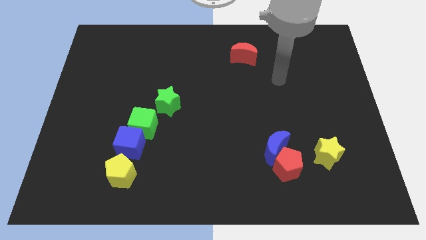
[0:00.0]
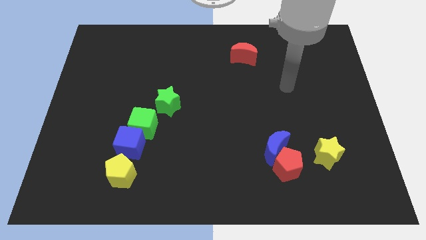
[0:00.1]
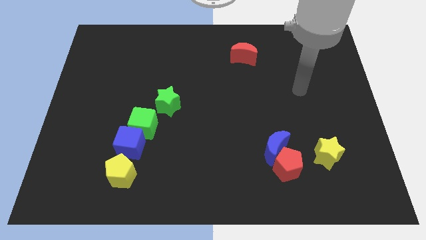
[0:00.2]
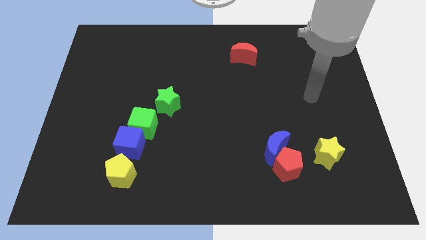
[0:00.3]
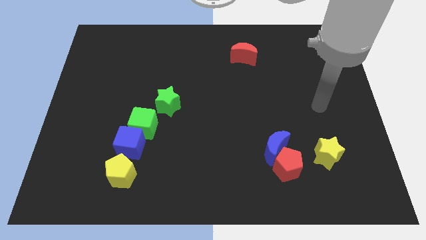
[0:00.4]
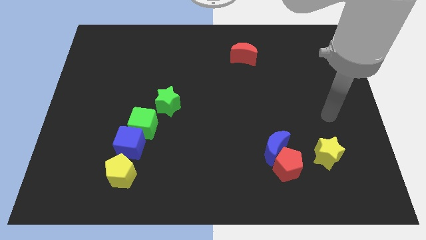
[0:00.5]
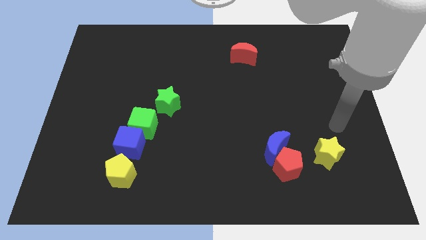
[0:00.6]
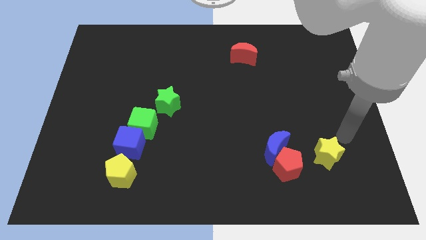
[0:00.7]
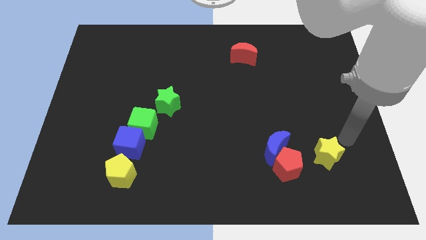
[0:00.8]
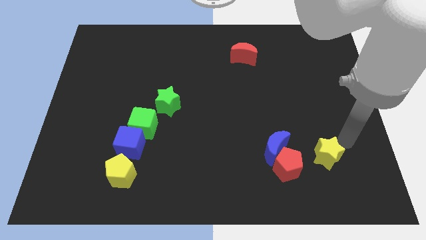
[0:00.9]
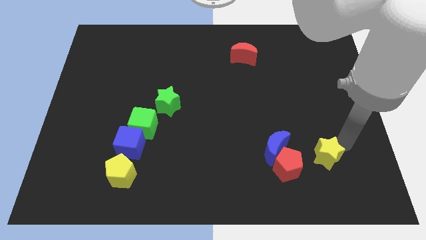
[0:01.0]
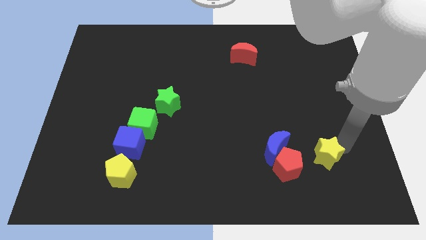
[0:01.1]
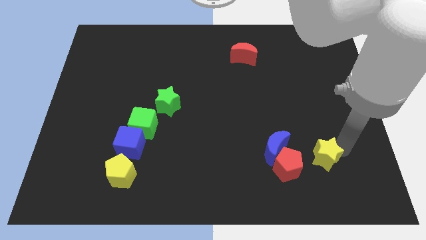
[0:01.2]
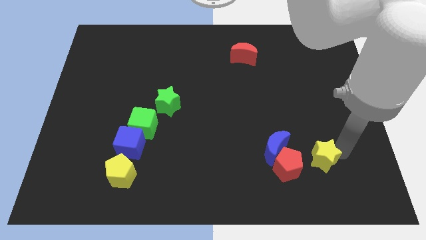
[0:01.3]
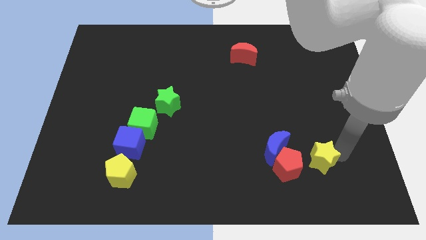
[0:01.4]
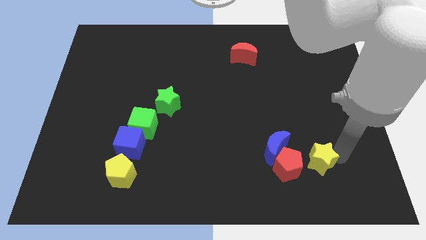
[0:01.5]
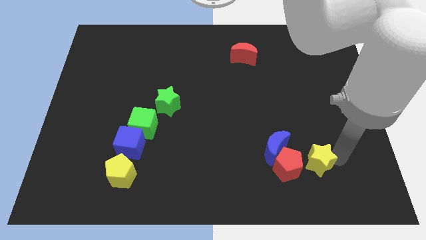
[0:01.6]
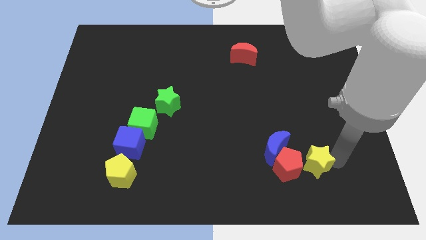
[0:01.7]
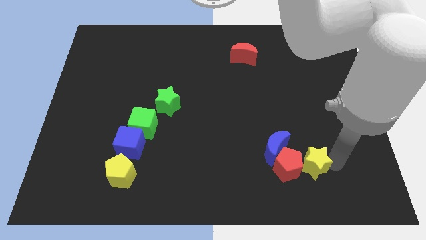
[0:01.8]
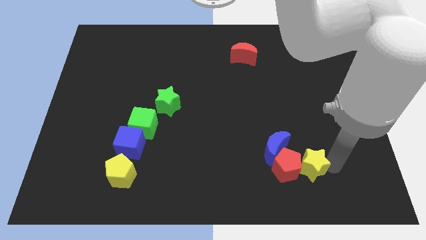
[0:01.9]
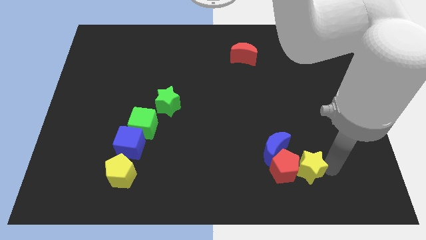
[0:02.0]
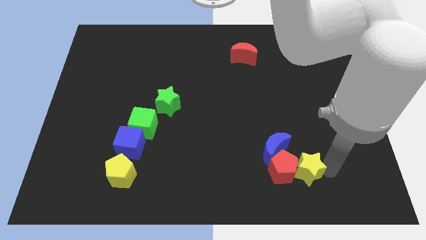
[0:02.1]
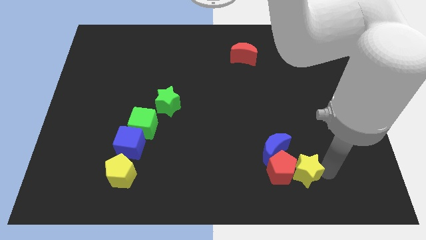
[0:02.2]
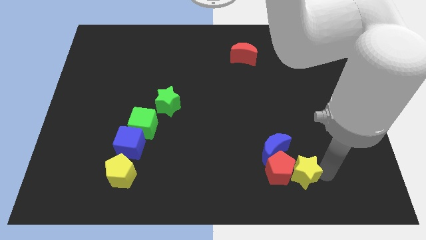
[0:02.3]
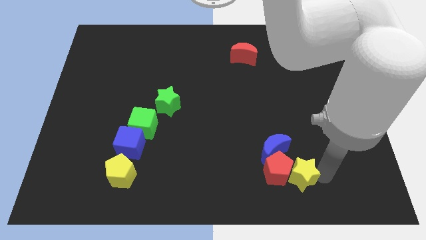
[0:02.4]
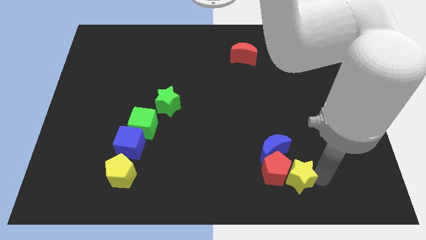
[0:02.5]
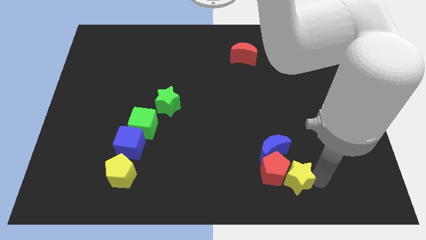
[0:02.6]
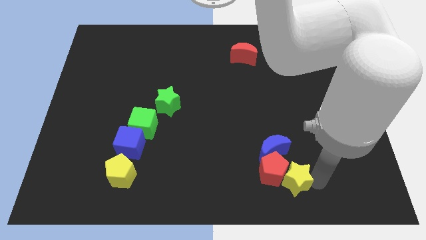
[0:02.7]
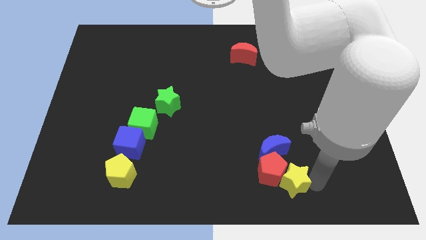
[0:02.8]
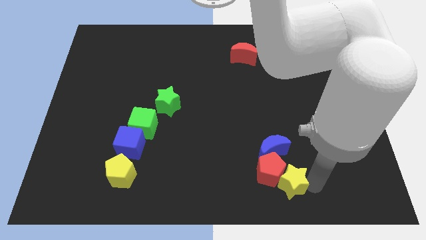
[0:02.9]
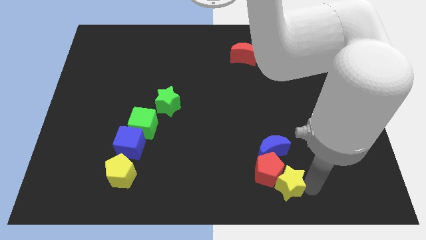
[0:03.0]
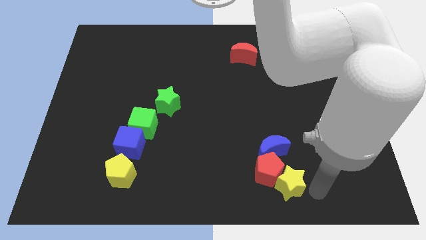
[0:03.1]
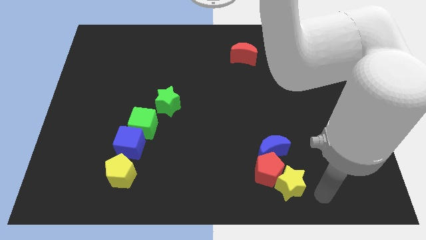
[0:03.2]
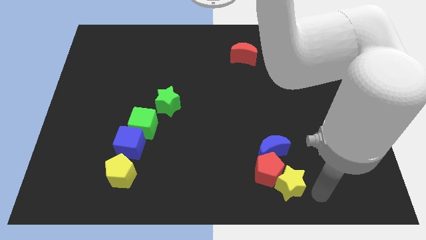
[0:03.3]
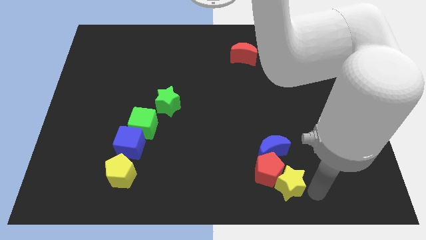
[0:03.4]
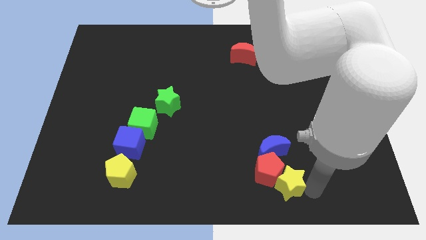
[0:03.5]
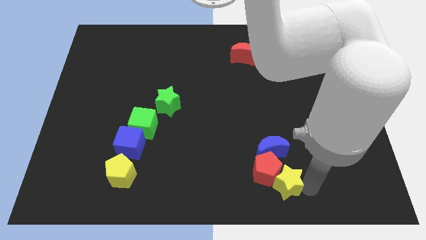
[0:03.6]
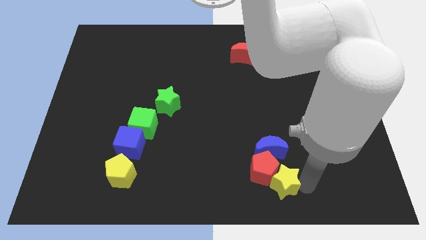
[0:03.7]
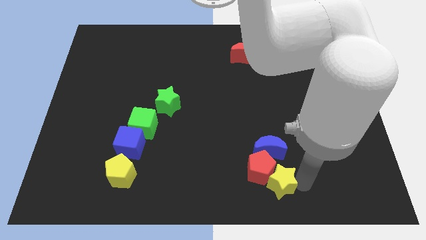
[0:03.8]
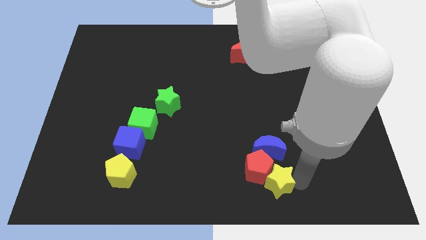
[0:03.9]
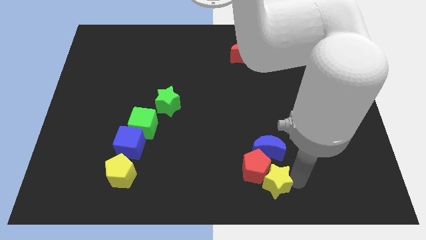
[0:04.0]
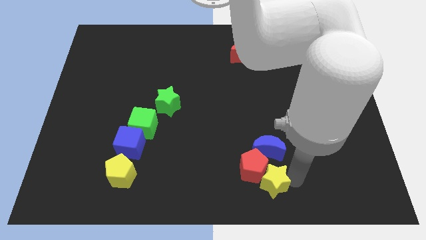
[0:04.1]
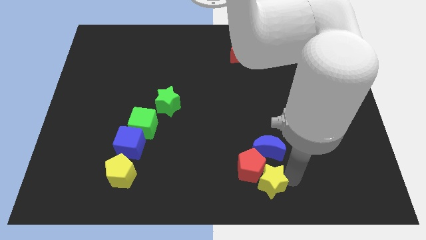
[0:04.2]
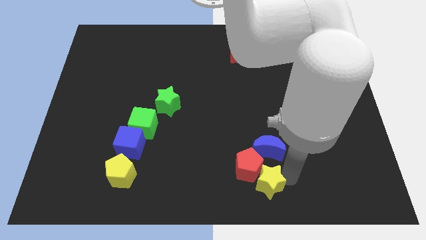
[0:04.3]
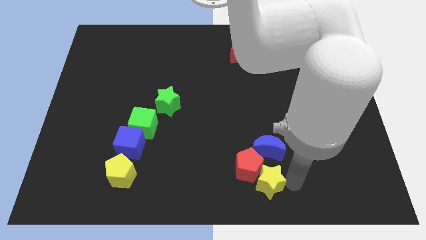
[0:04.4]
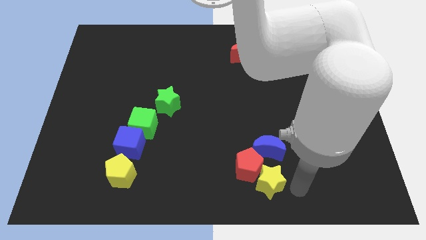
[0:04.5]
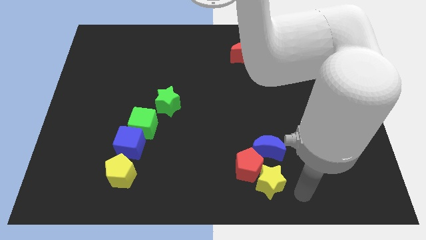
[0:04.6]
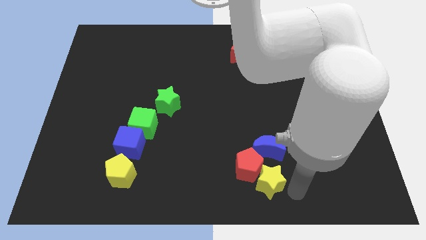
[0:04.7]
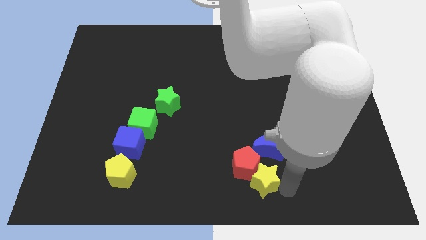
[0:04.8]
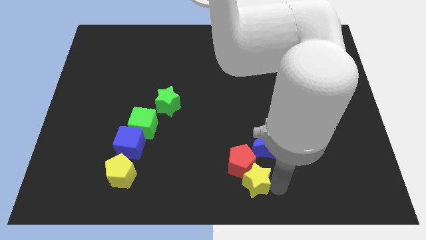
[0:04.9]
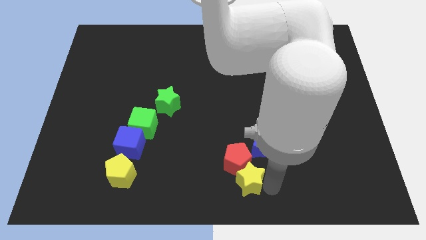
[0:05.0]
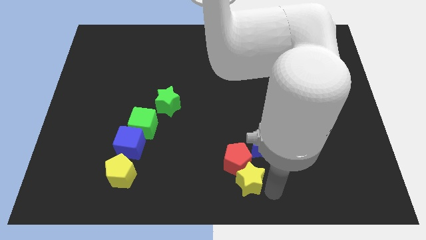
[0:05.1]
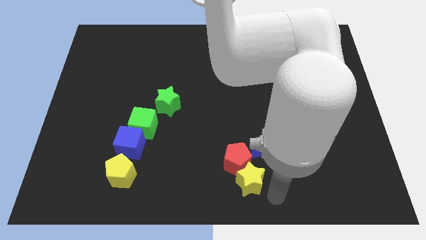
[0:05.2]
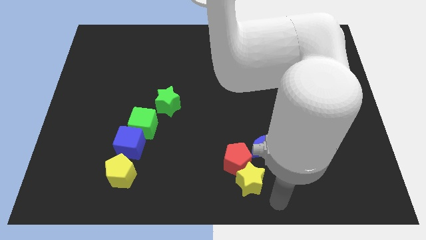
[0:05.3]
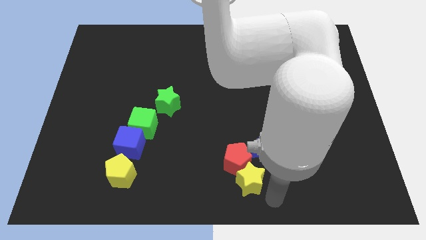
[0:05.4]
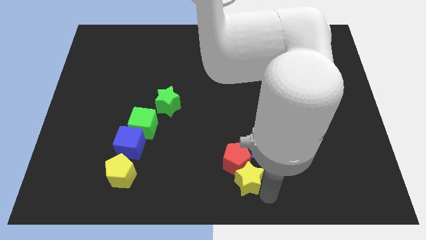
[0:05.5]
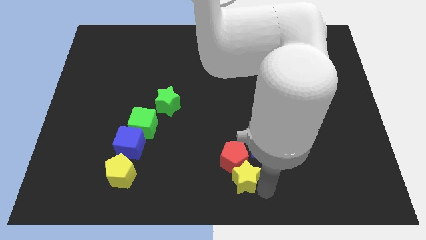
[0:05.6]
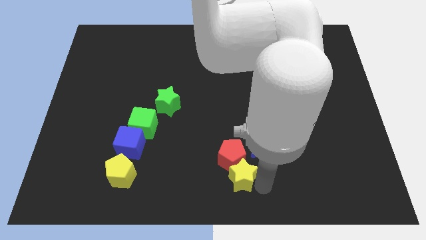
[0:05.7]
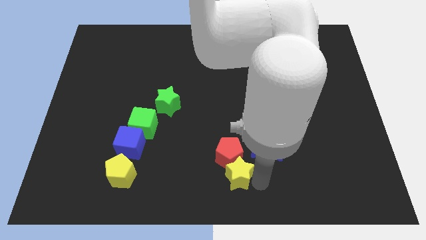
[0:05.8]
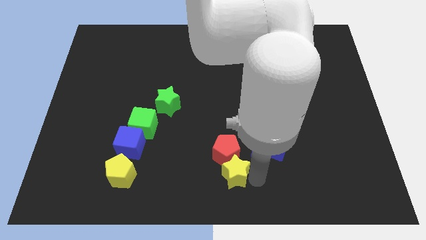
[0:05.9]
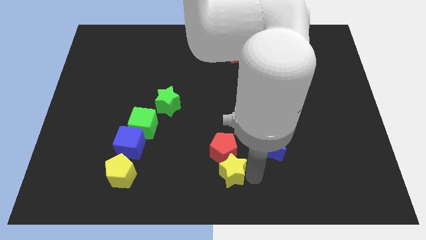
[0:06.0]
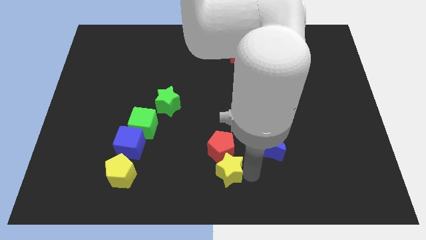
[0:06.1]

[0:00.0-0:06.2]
slide the yellow star left

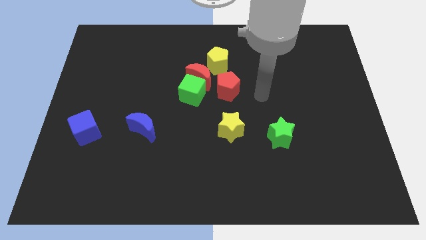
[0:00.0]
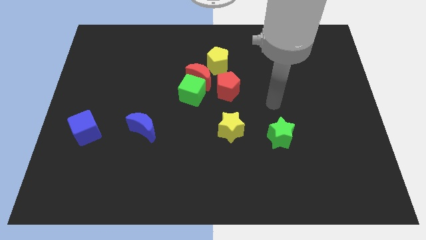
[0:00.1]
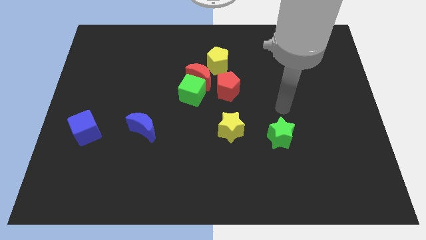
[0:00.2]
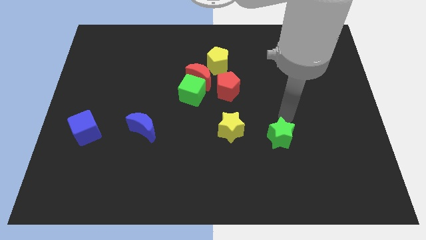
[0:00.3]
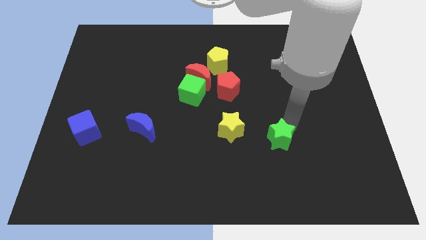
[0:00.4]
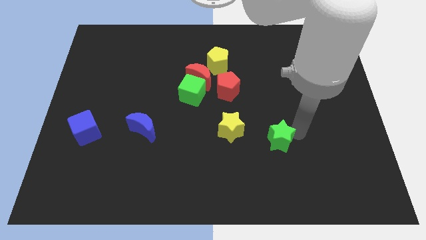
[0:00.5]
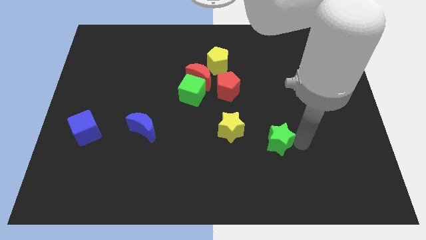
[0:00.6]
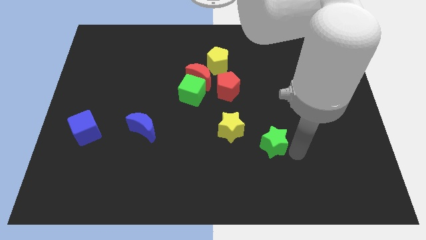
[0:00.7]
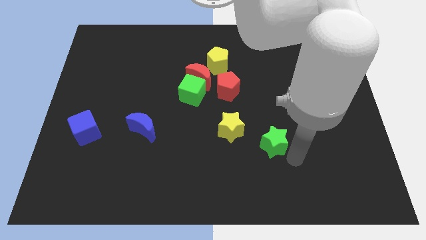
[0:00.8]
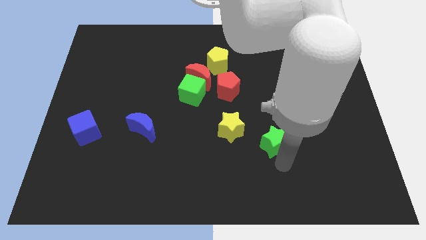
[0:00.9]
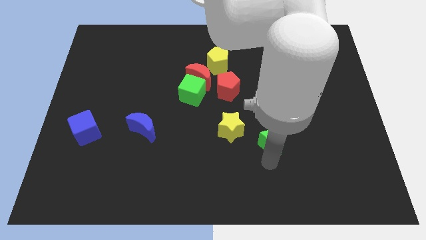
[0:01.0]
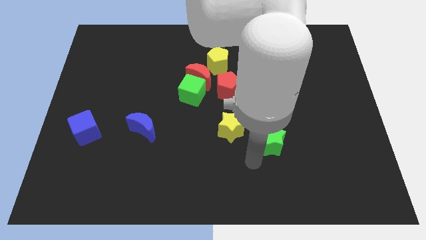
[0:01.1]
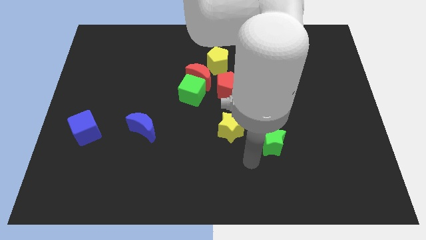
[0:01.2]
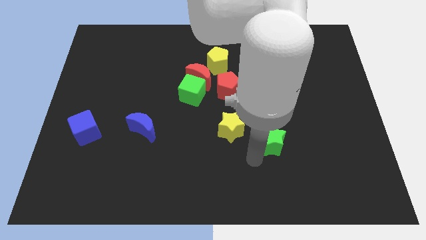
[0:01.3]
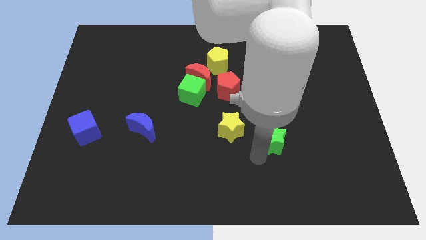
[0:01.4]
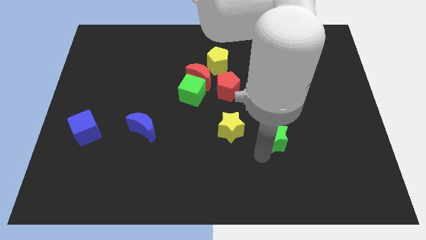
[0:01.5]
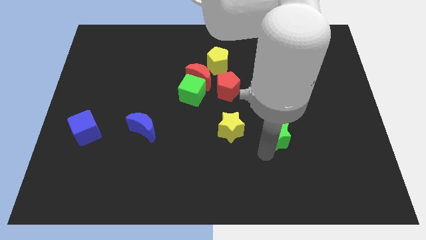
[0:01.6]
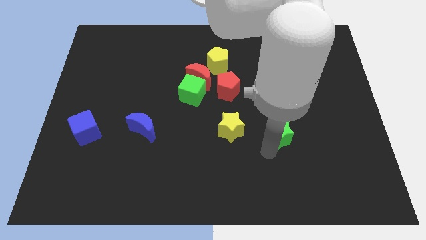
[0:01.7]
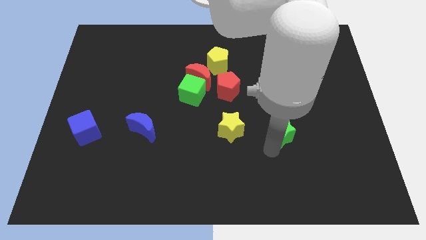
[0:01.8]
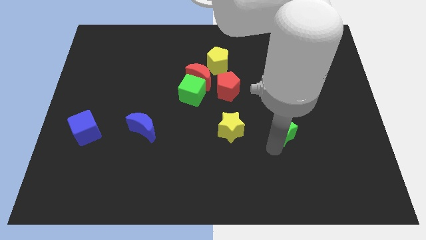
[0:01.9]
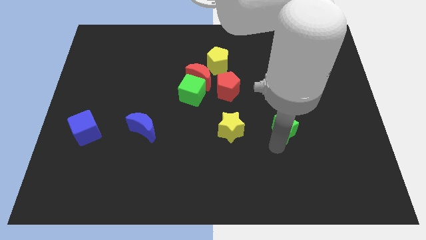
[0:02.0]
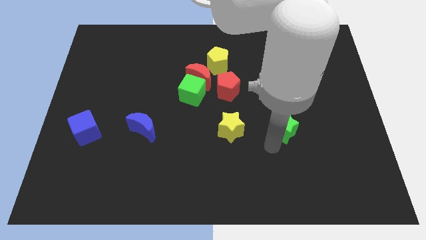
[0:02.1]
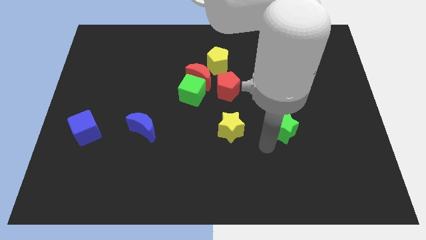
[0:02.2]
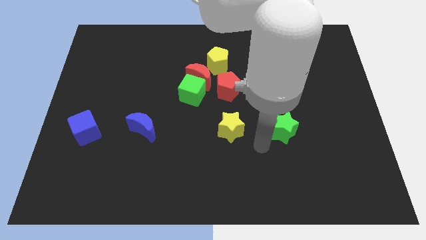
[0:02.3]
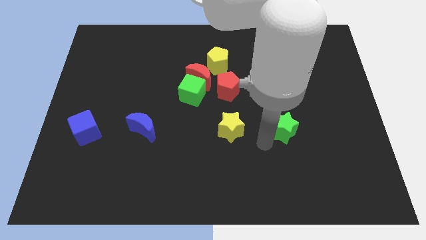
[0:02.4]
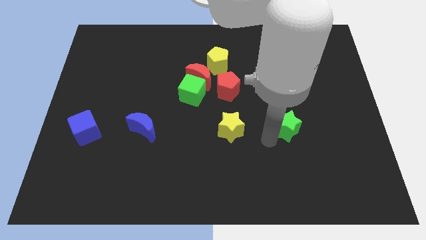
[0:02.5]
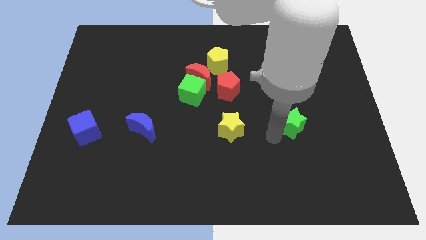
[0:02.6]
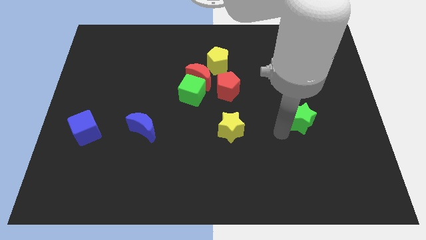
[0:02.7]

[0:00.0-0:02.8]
move the green star up and then to the right a little
